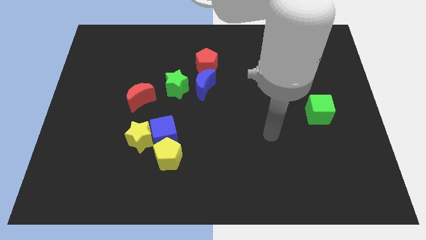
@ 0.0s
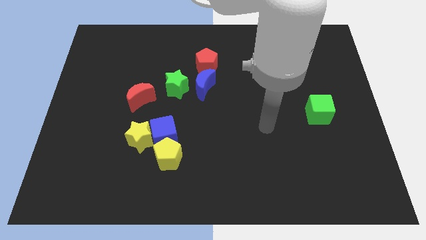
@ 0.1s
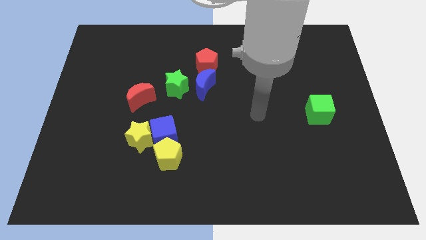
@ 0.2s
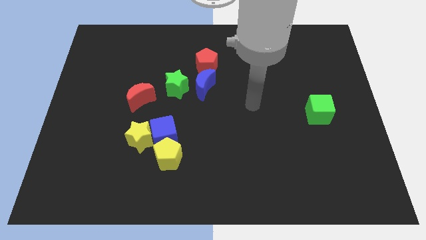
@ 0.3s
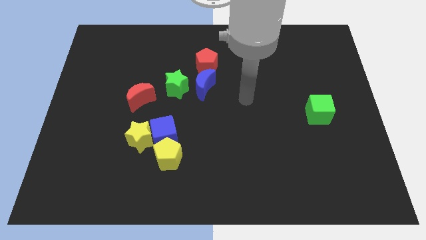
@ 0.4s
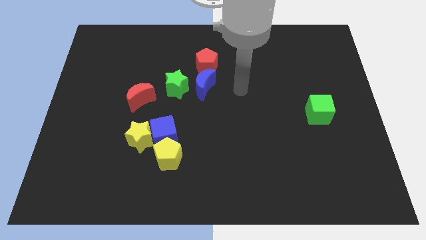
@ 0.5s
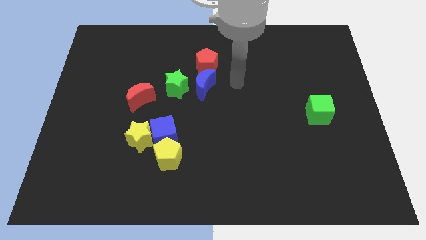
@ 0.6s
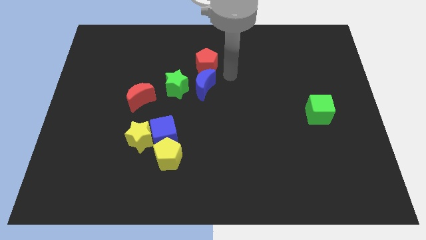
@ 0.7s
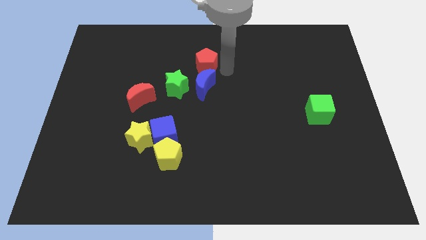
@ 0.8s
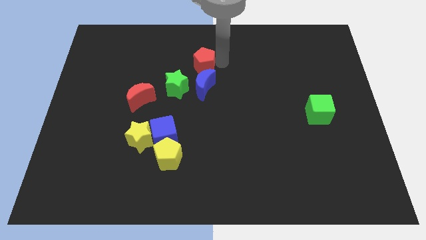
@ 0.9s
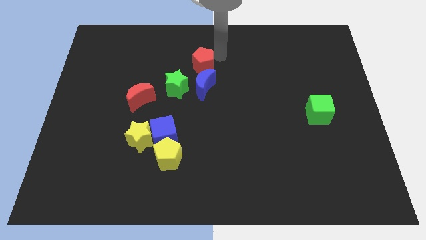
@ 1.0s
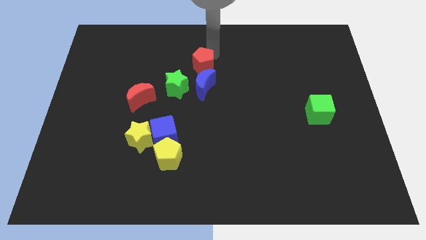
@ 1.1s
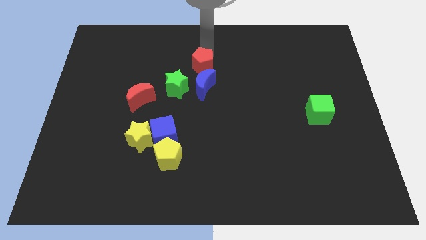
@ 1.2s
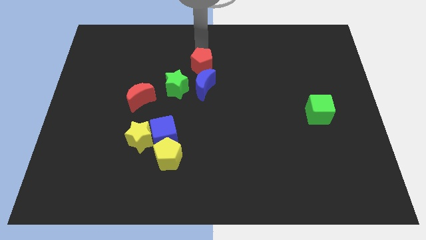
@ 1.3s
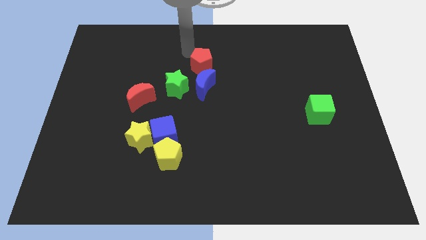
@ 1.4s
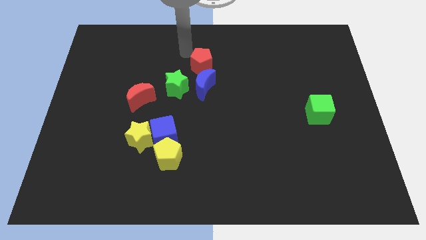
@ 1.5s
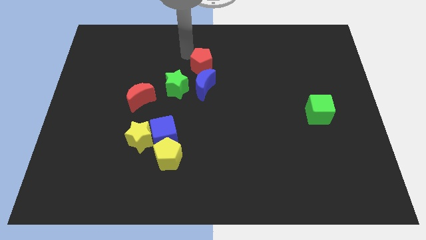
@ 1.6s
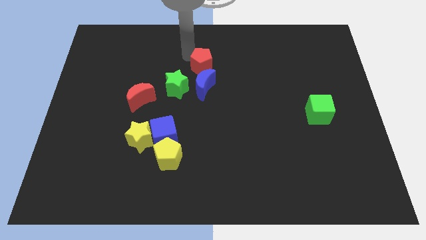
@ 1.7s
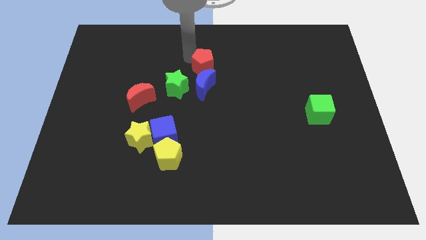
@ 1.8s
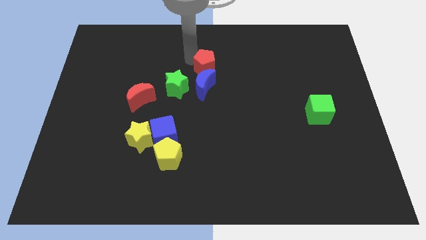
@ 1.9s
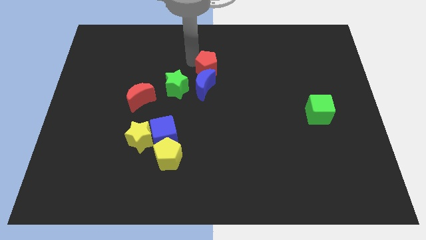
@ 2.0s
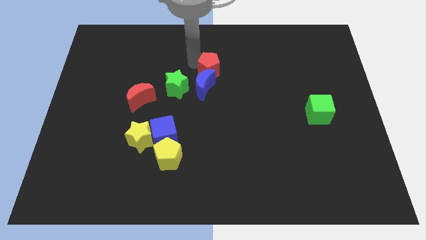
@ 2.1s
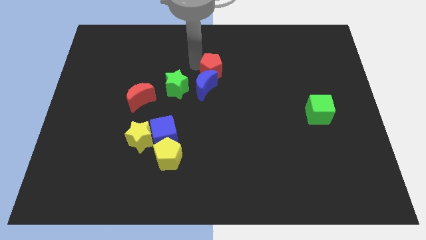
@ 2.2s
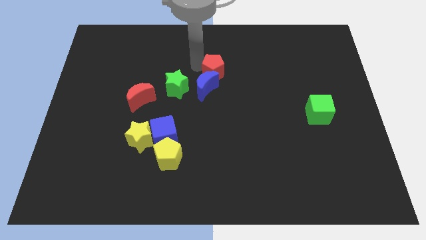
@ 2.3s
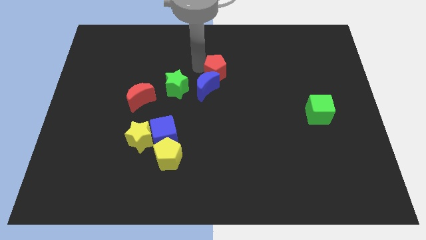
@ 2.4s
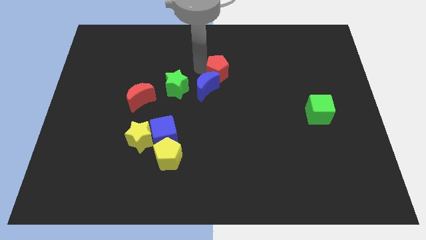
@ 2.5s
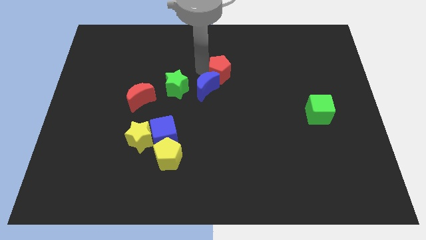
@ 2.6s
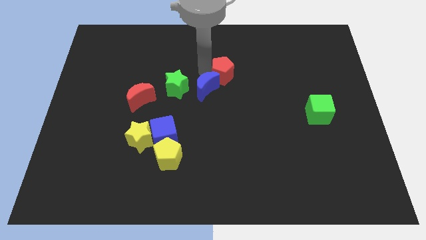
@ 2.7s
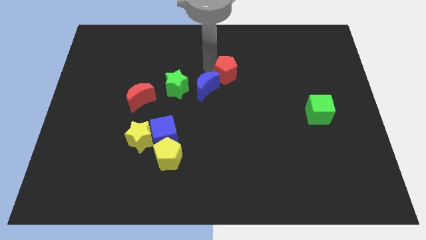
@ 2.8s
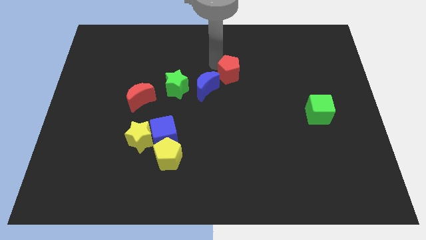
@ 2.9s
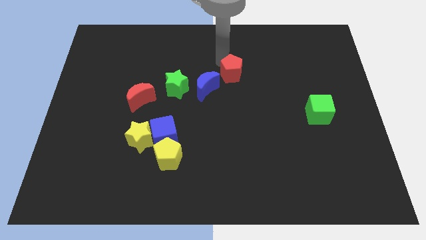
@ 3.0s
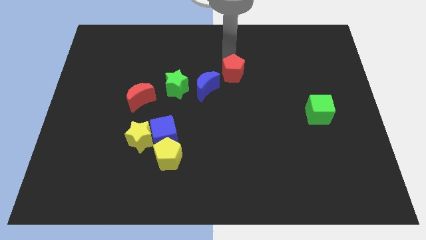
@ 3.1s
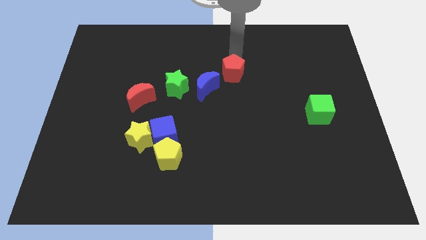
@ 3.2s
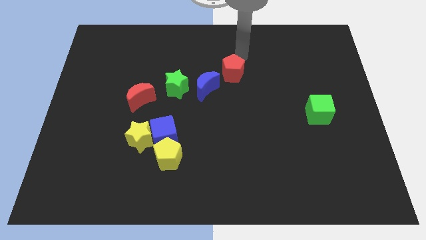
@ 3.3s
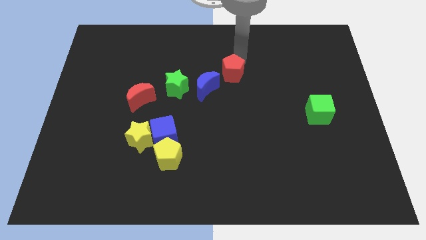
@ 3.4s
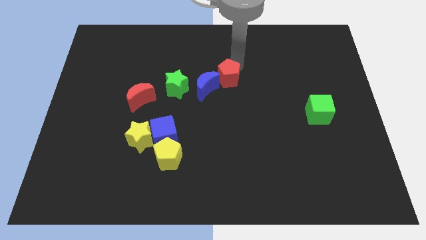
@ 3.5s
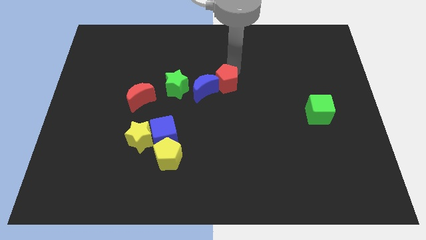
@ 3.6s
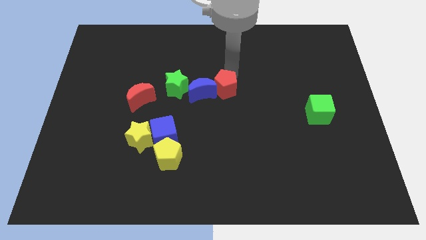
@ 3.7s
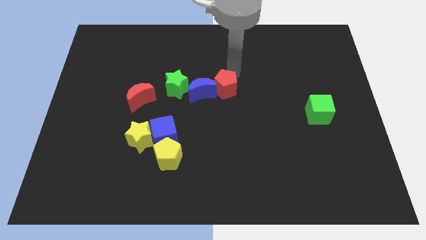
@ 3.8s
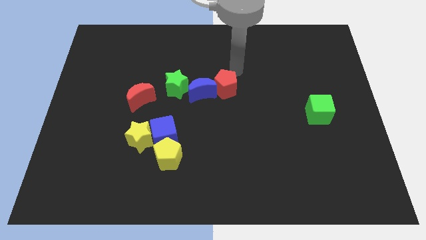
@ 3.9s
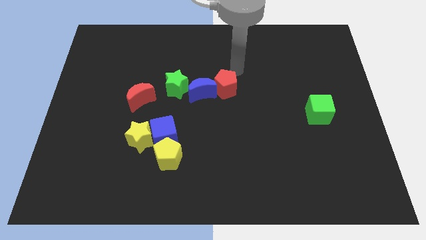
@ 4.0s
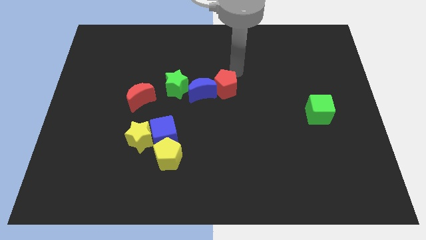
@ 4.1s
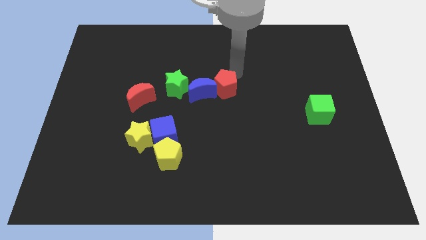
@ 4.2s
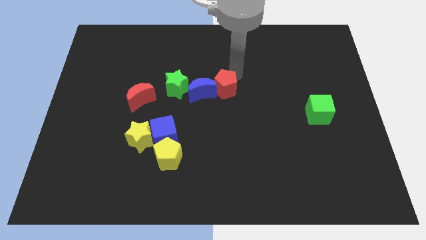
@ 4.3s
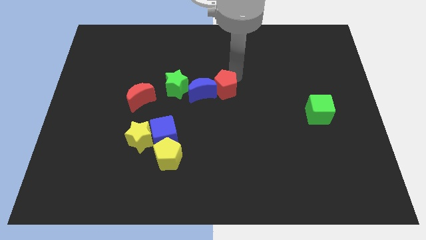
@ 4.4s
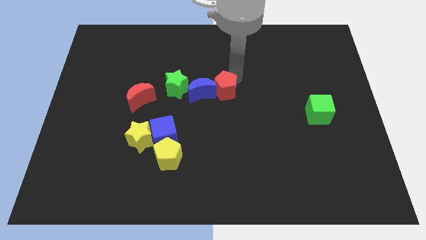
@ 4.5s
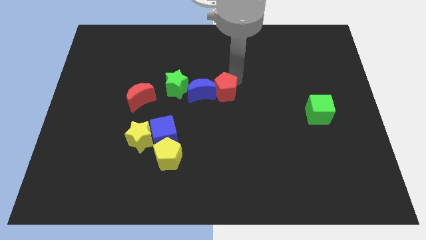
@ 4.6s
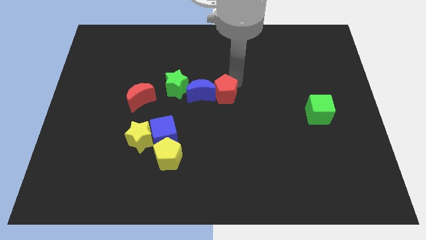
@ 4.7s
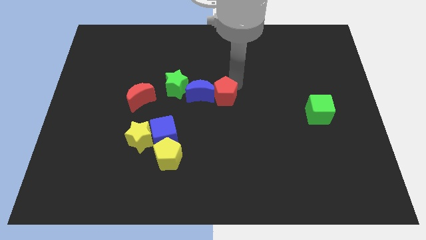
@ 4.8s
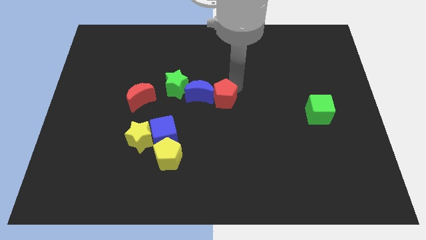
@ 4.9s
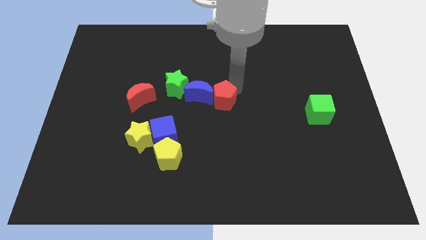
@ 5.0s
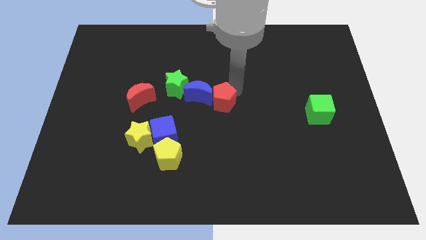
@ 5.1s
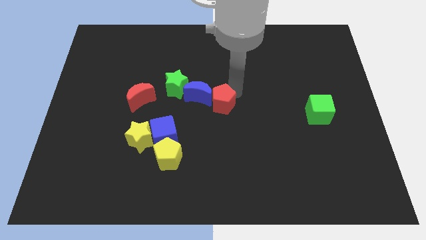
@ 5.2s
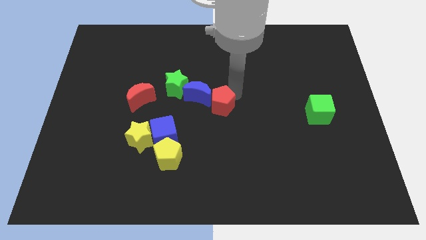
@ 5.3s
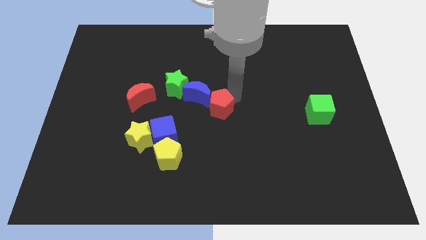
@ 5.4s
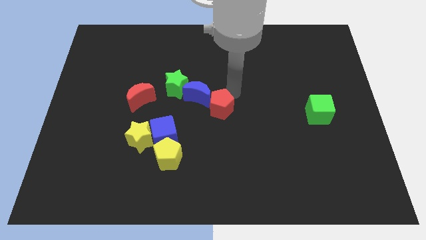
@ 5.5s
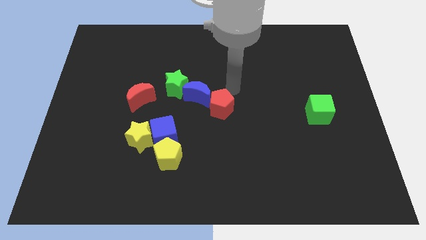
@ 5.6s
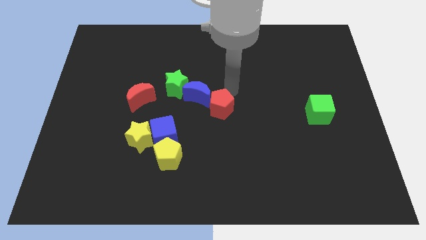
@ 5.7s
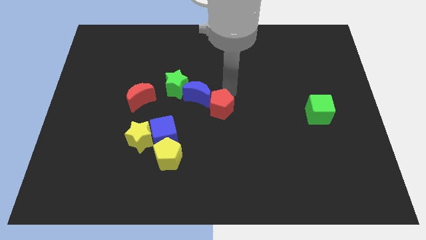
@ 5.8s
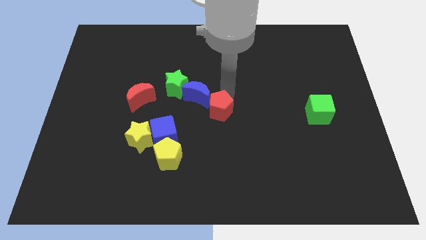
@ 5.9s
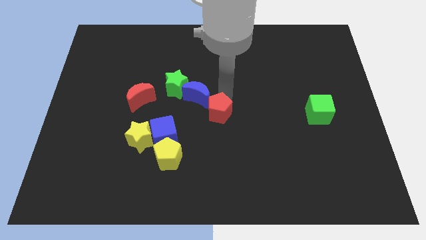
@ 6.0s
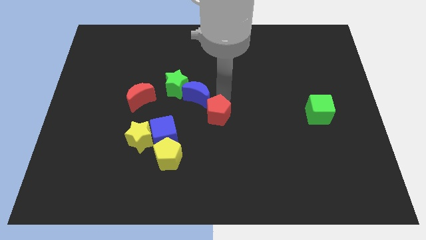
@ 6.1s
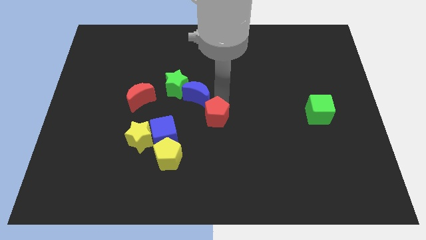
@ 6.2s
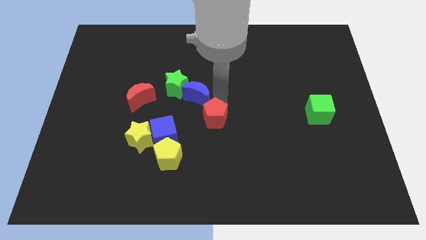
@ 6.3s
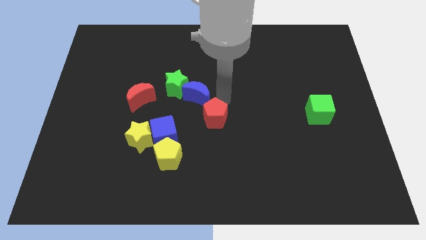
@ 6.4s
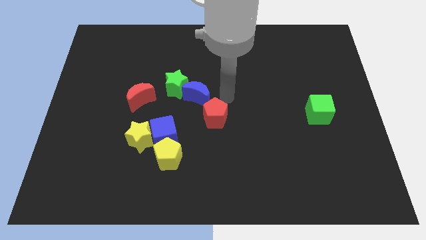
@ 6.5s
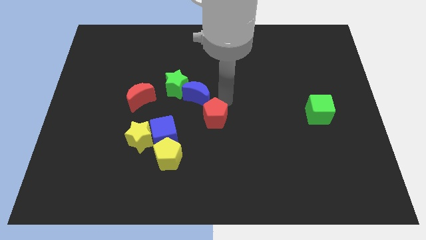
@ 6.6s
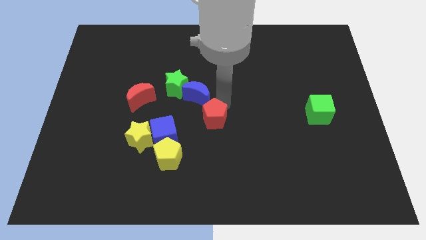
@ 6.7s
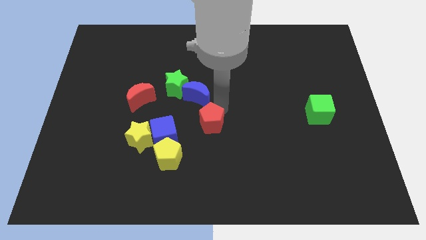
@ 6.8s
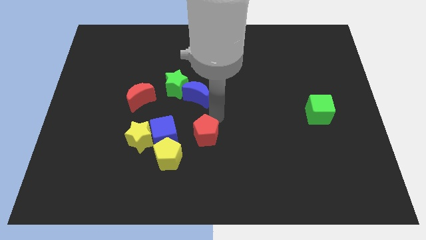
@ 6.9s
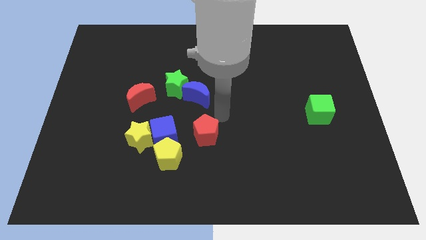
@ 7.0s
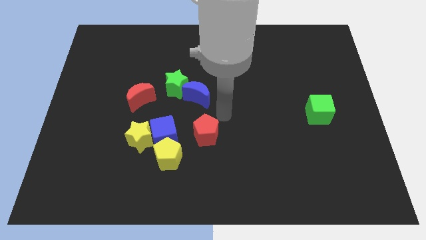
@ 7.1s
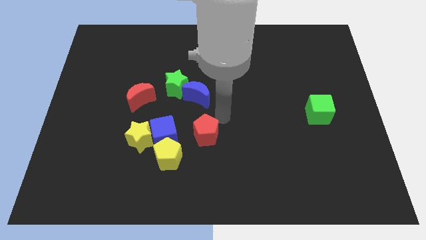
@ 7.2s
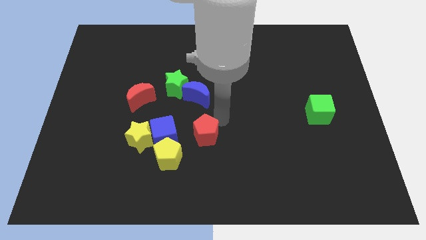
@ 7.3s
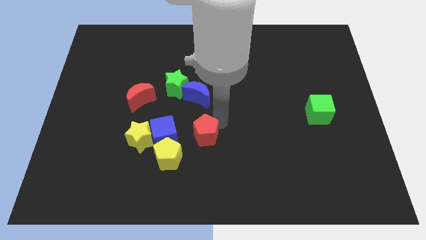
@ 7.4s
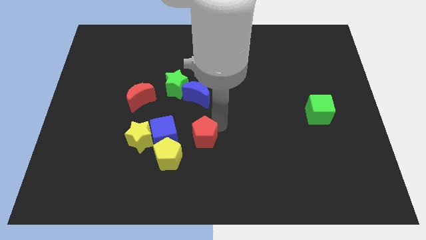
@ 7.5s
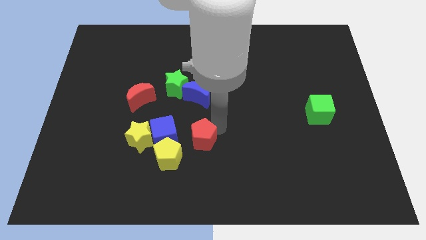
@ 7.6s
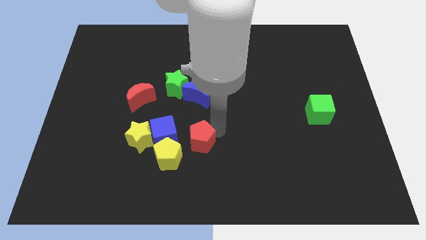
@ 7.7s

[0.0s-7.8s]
push the red pentagon to the bottom right side of the blue cube
